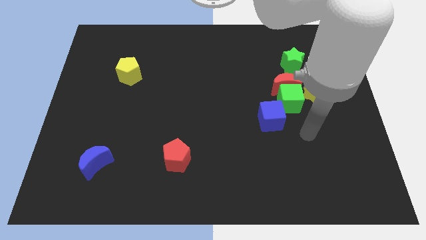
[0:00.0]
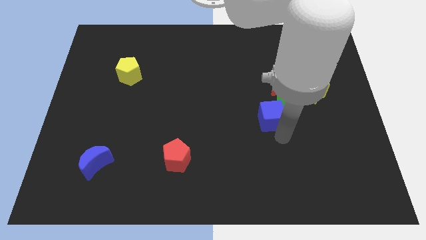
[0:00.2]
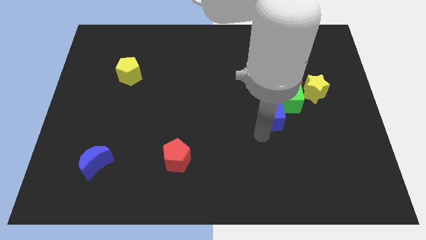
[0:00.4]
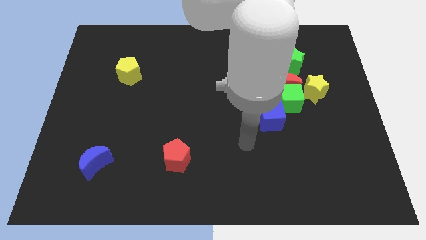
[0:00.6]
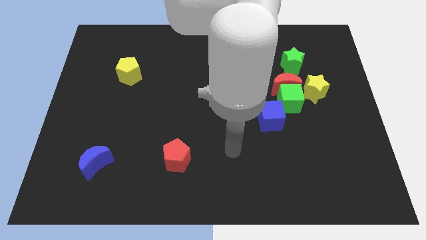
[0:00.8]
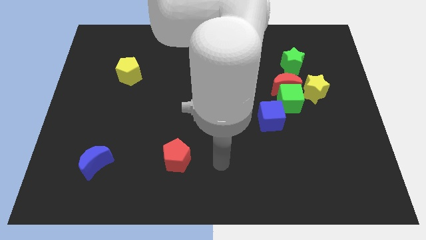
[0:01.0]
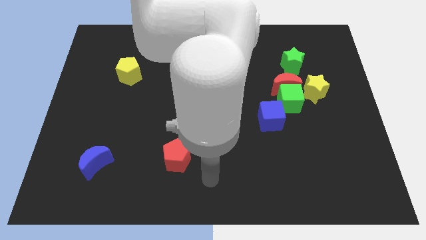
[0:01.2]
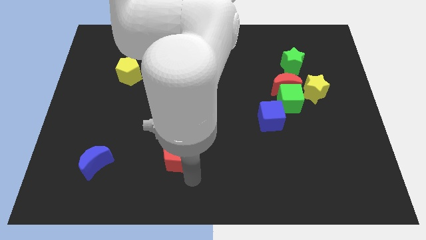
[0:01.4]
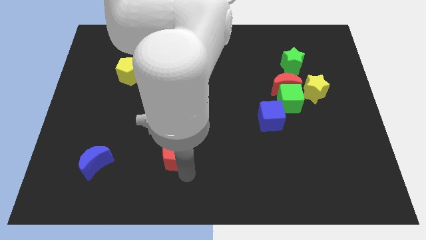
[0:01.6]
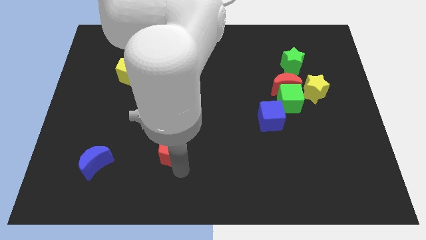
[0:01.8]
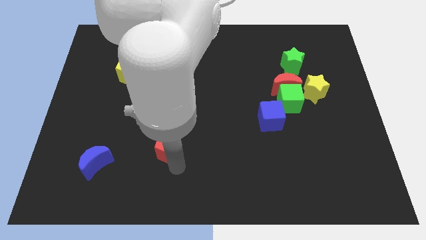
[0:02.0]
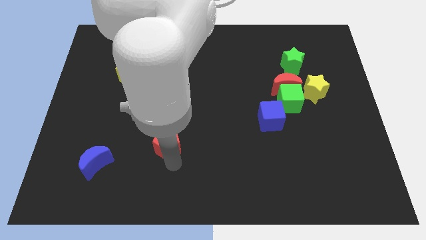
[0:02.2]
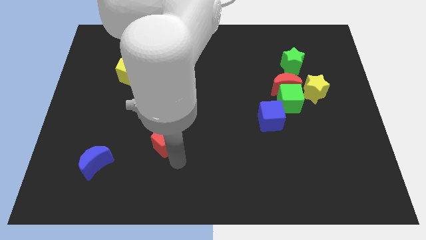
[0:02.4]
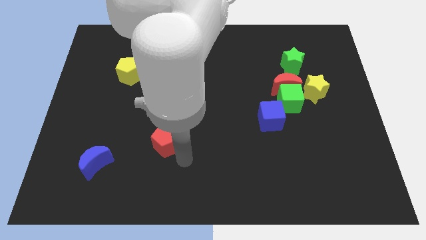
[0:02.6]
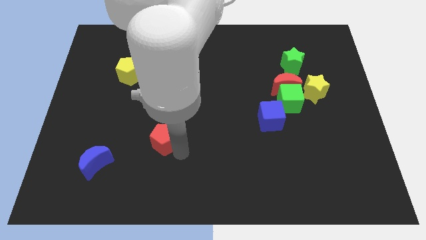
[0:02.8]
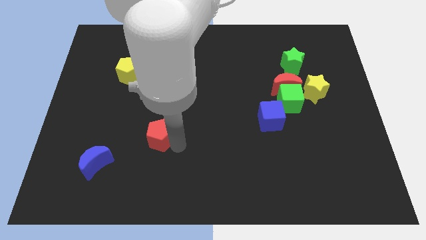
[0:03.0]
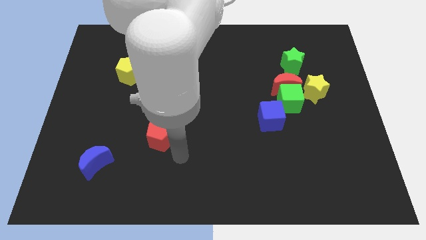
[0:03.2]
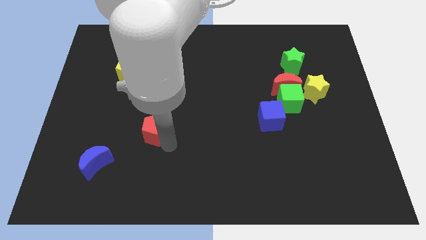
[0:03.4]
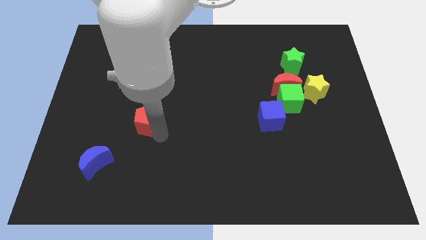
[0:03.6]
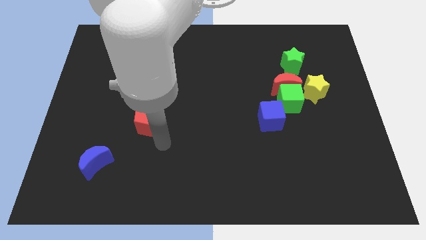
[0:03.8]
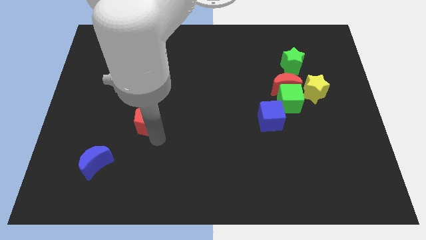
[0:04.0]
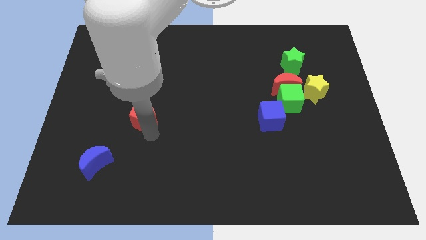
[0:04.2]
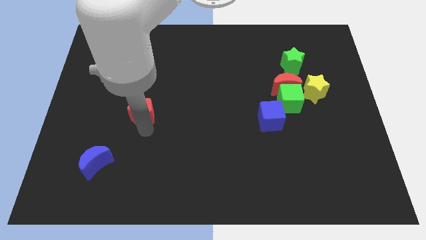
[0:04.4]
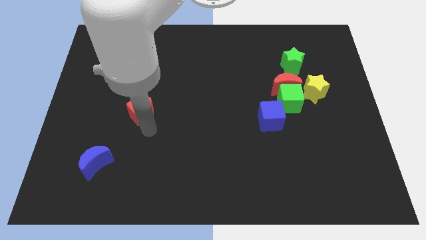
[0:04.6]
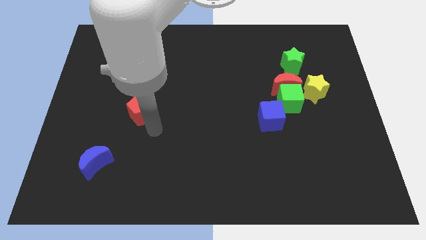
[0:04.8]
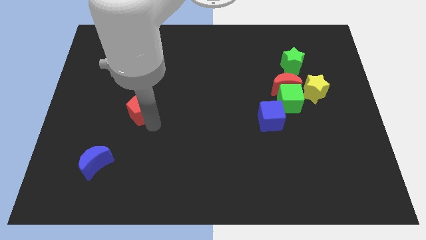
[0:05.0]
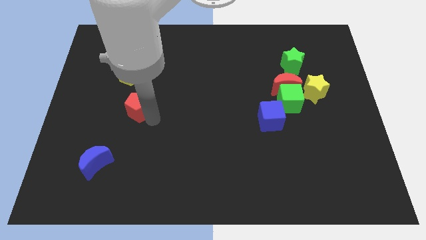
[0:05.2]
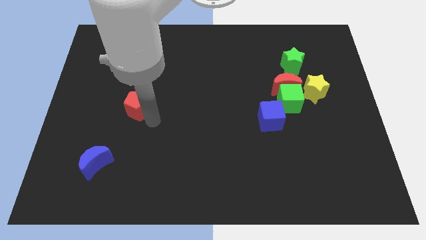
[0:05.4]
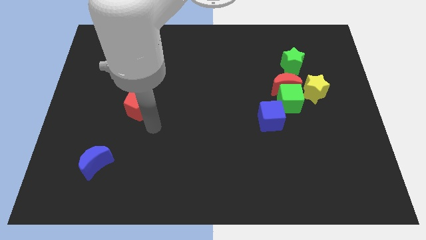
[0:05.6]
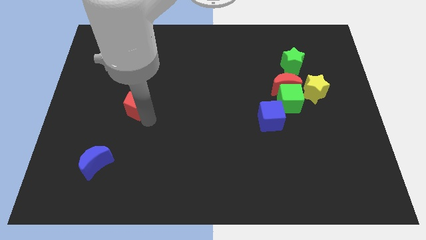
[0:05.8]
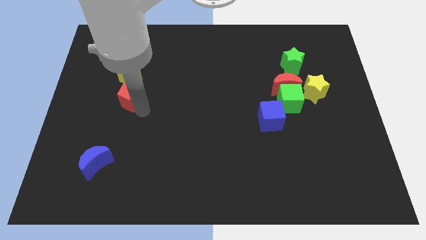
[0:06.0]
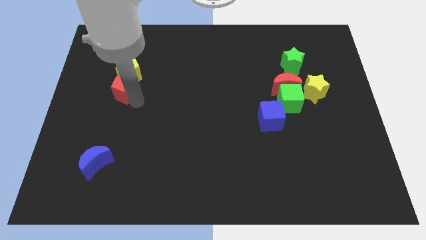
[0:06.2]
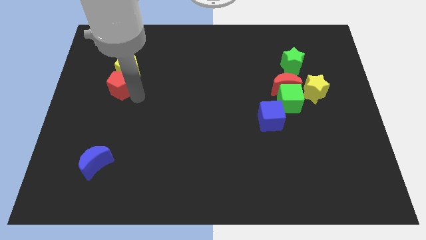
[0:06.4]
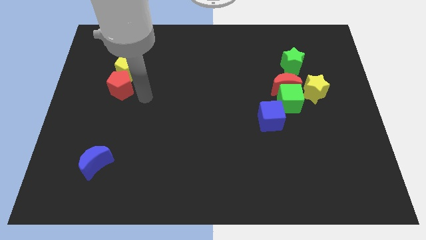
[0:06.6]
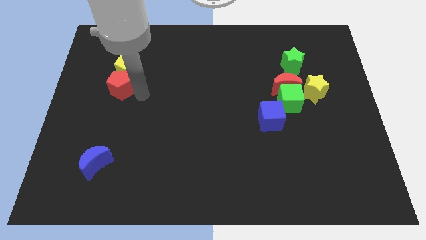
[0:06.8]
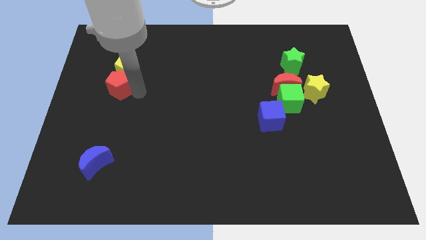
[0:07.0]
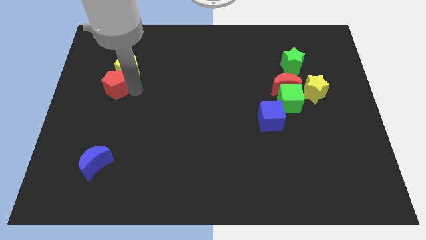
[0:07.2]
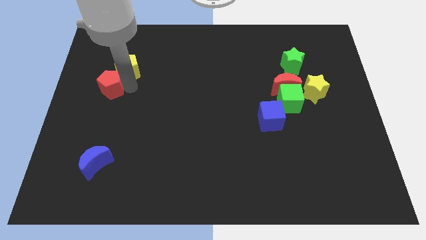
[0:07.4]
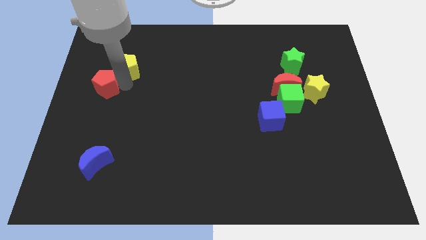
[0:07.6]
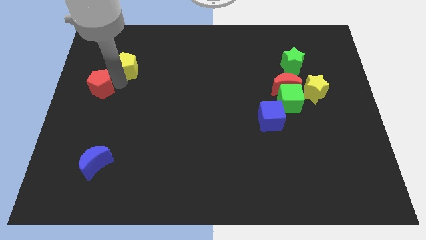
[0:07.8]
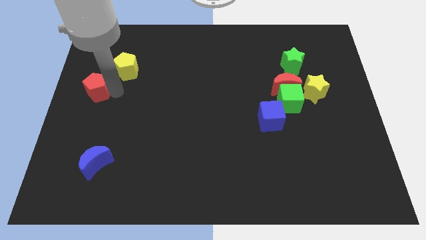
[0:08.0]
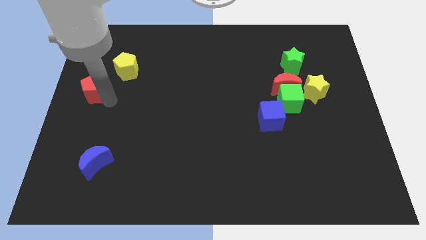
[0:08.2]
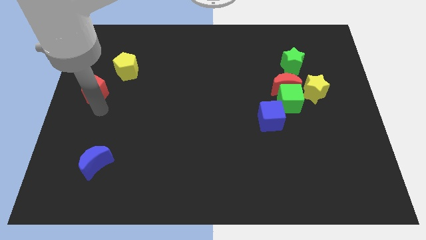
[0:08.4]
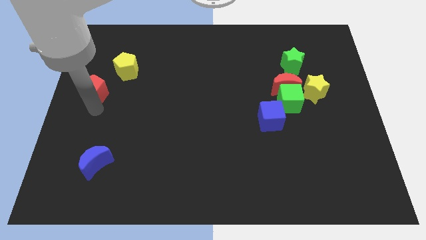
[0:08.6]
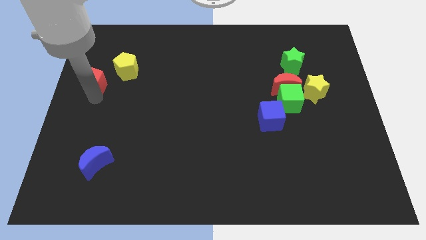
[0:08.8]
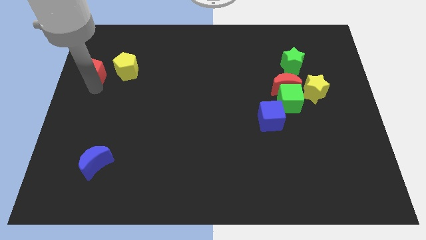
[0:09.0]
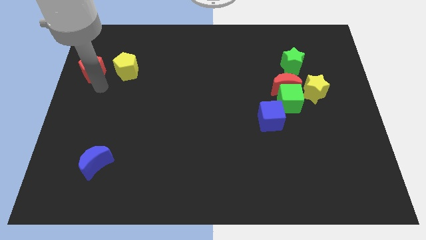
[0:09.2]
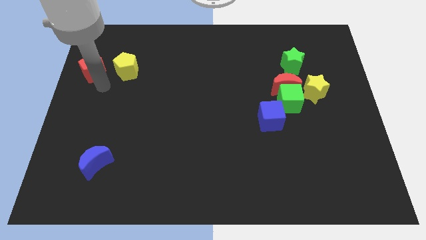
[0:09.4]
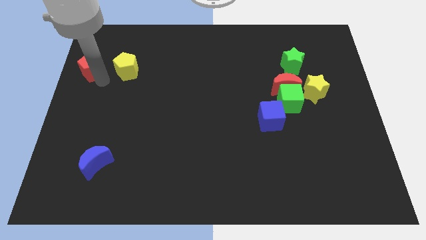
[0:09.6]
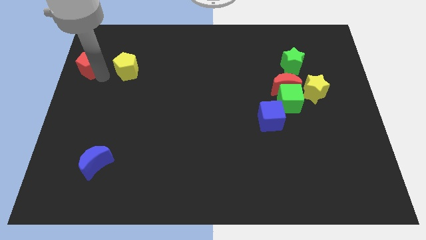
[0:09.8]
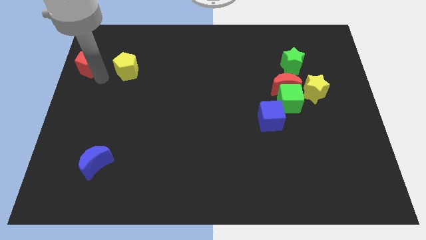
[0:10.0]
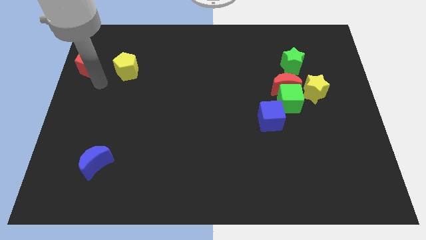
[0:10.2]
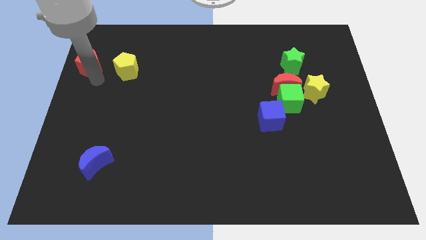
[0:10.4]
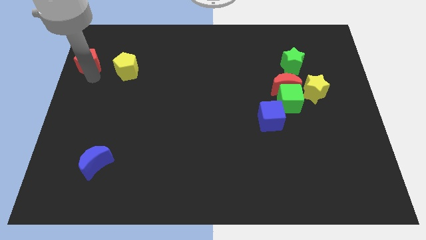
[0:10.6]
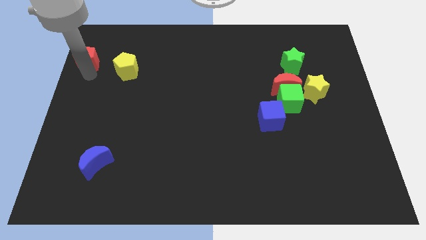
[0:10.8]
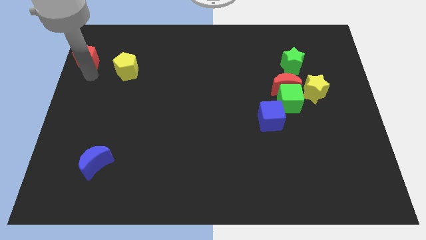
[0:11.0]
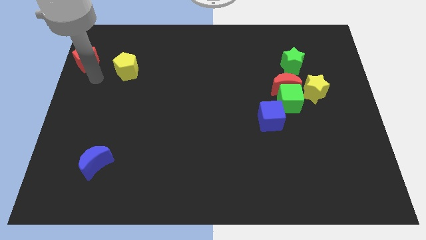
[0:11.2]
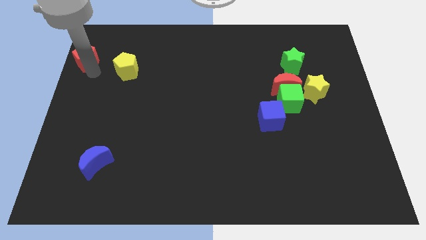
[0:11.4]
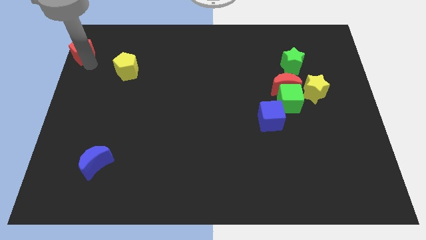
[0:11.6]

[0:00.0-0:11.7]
slide the red pentagon to the top left

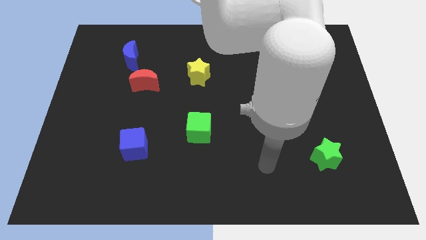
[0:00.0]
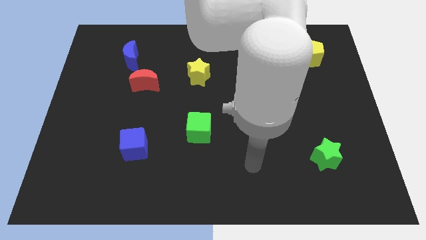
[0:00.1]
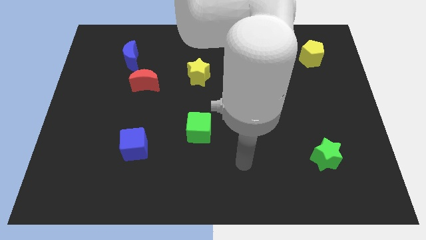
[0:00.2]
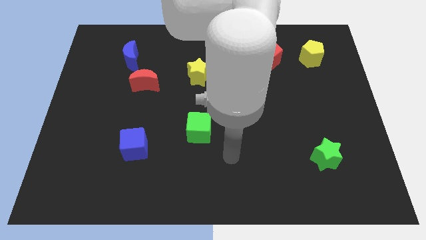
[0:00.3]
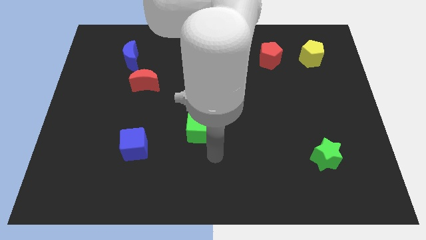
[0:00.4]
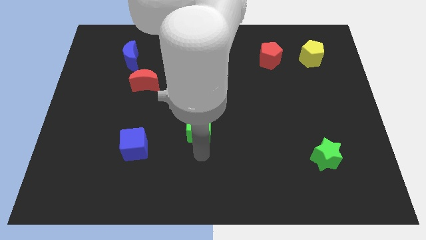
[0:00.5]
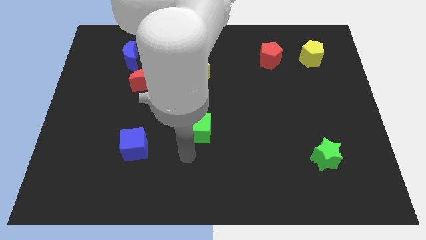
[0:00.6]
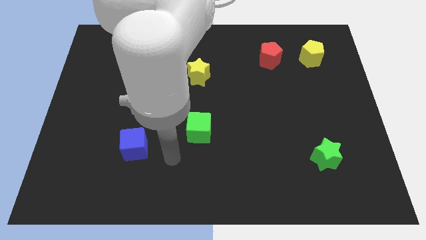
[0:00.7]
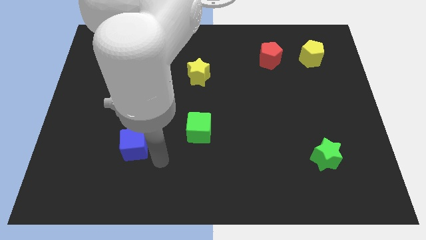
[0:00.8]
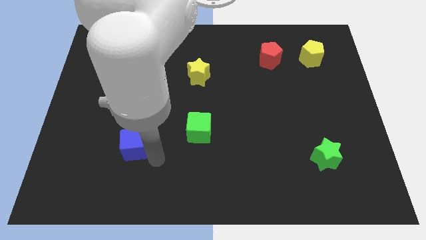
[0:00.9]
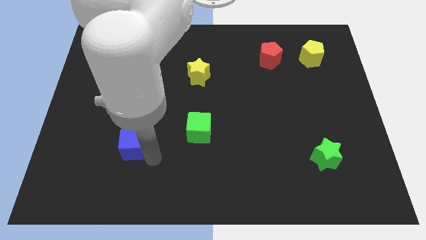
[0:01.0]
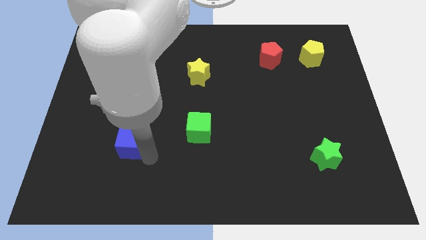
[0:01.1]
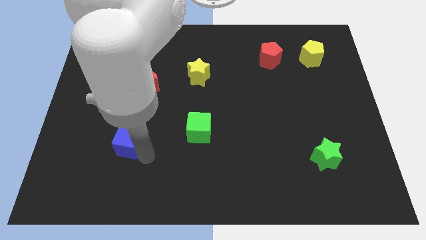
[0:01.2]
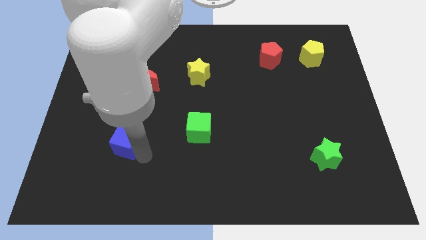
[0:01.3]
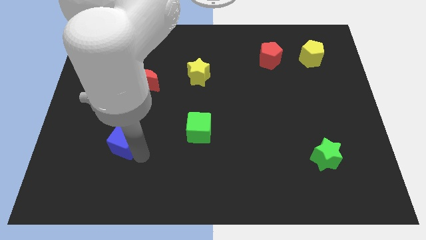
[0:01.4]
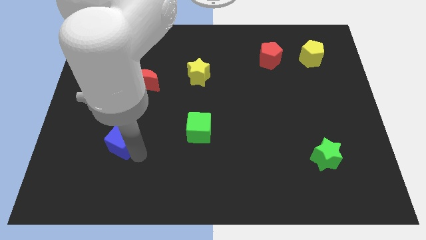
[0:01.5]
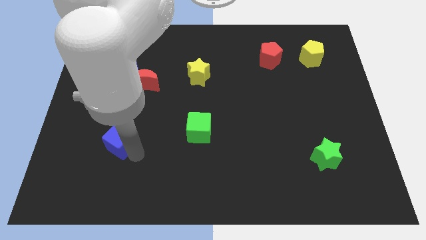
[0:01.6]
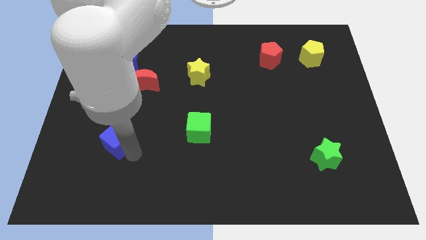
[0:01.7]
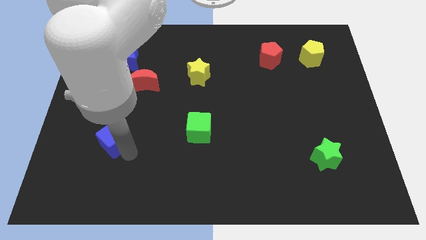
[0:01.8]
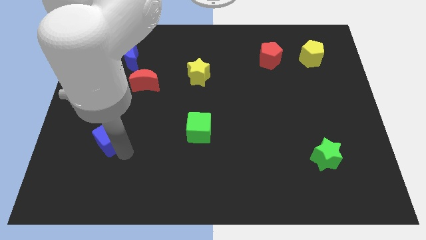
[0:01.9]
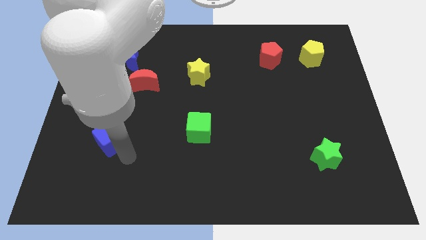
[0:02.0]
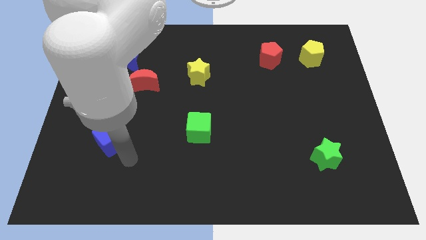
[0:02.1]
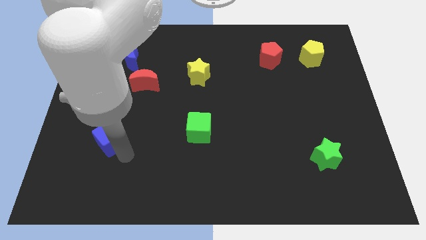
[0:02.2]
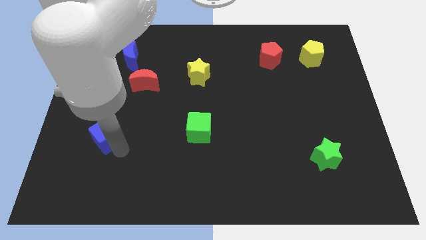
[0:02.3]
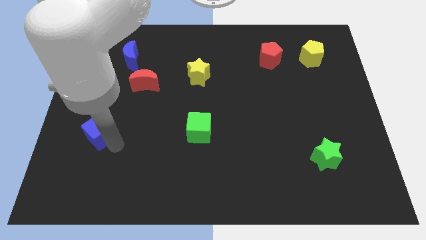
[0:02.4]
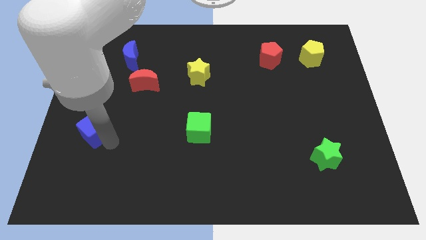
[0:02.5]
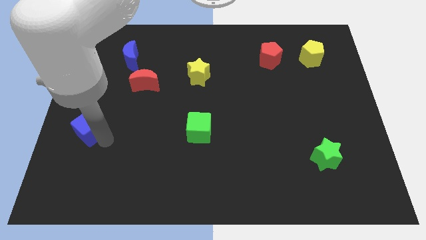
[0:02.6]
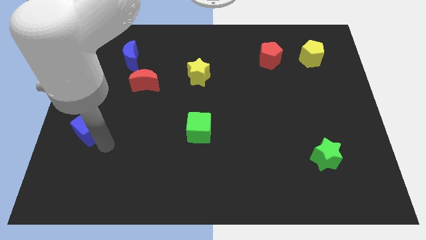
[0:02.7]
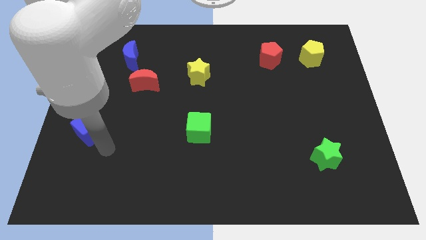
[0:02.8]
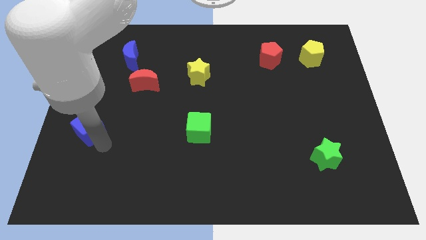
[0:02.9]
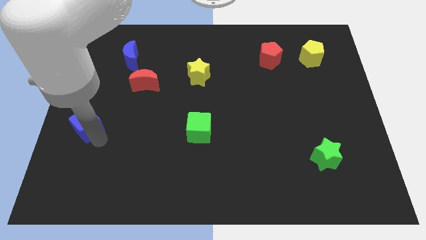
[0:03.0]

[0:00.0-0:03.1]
move the blue cube to the left side of the board
